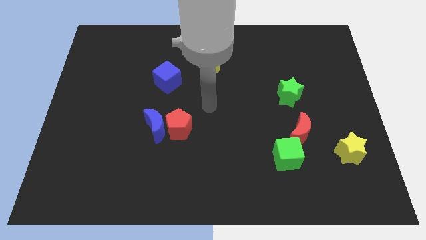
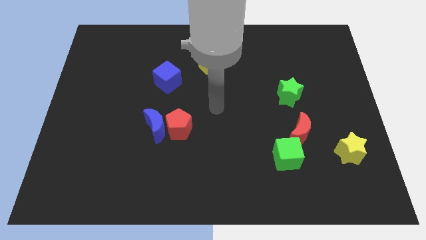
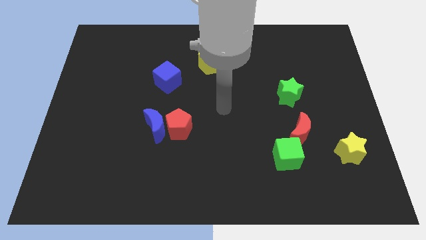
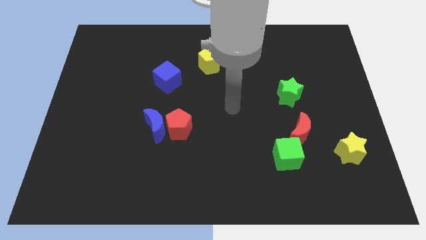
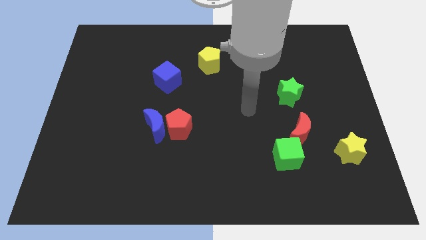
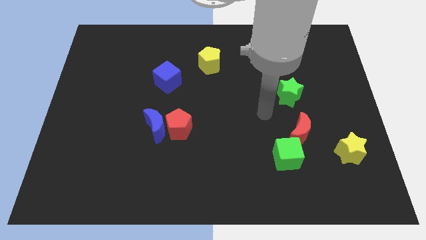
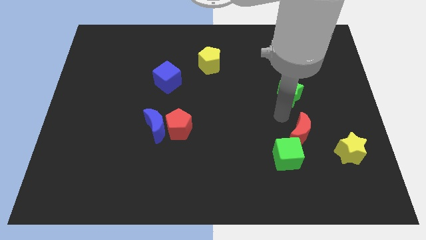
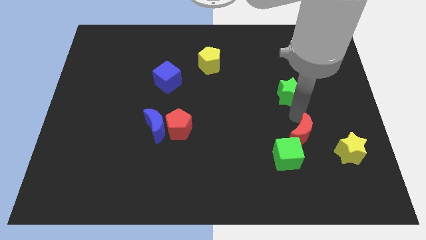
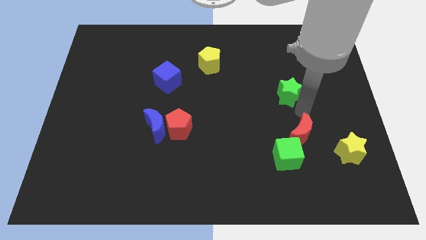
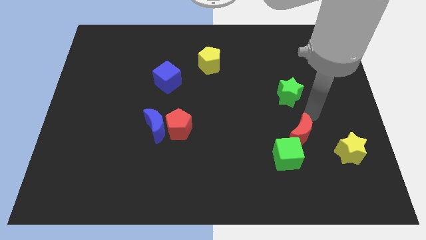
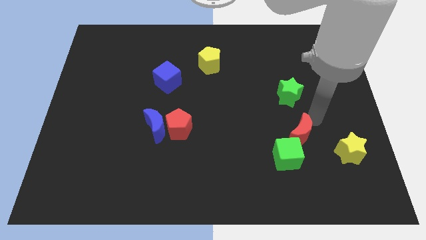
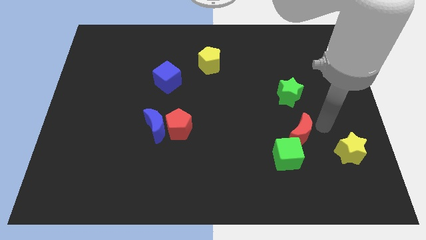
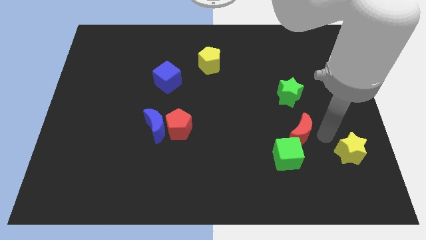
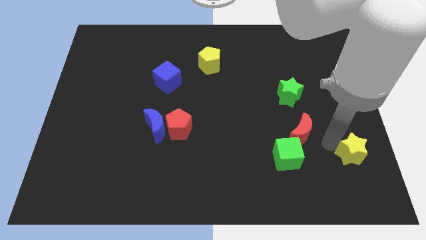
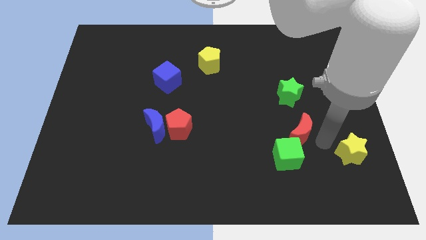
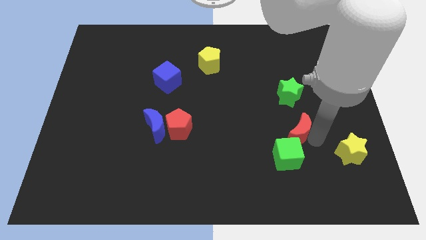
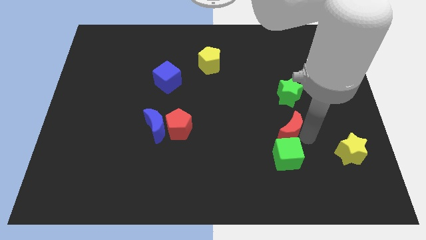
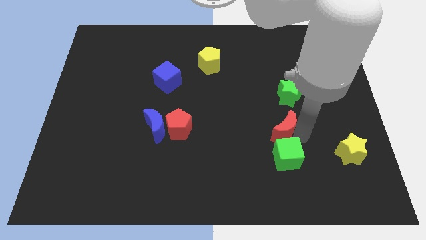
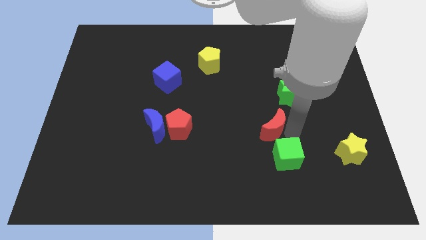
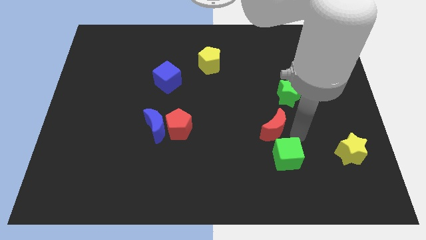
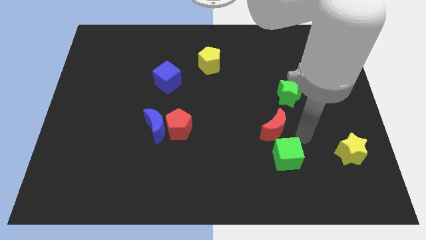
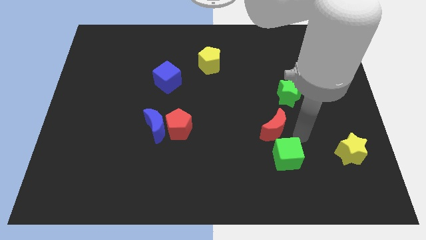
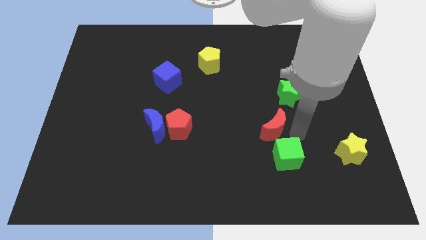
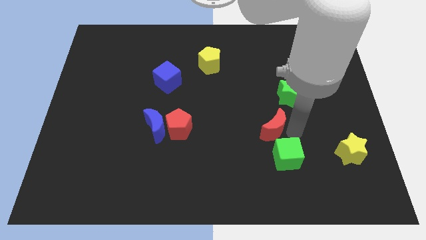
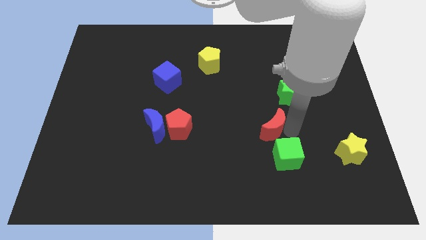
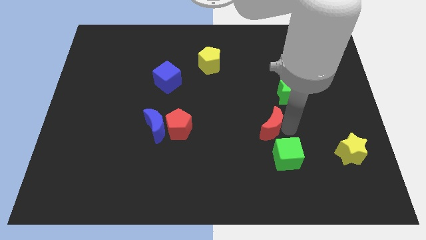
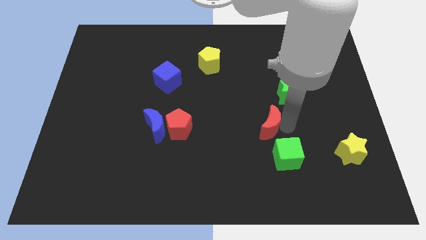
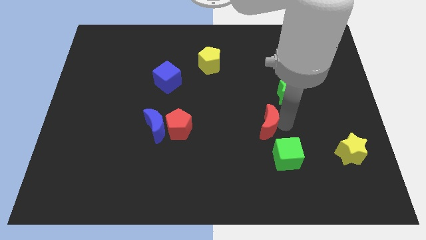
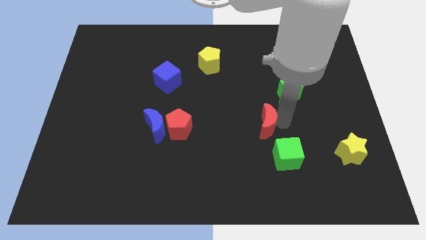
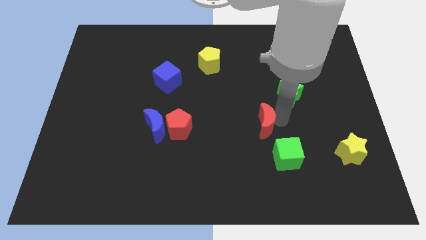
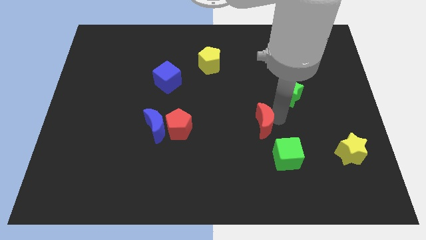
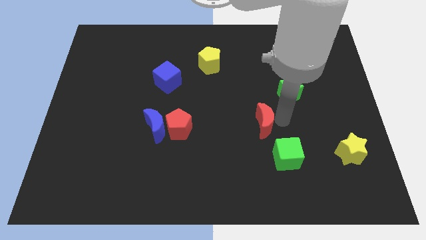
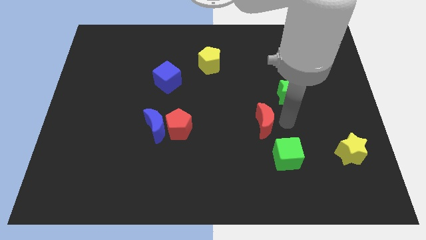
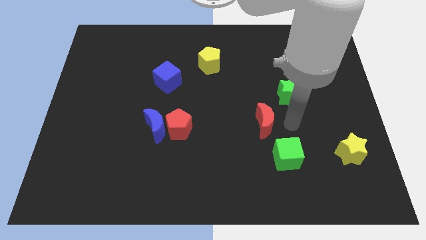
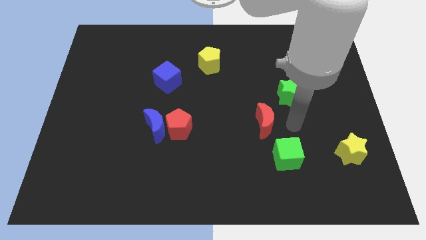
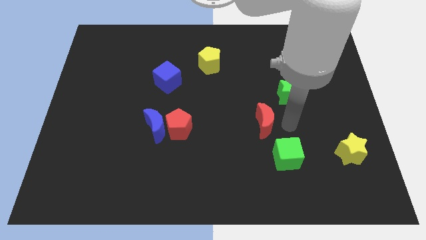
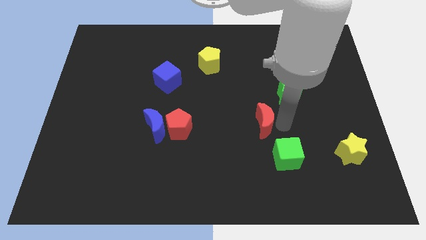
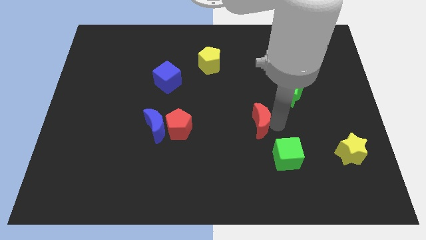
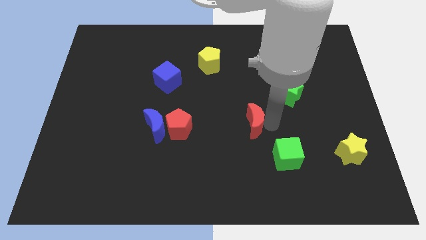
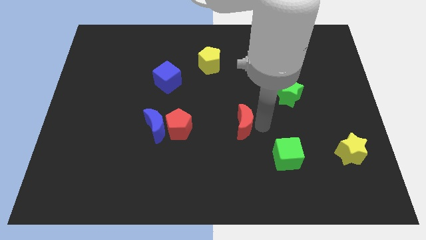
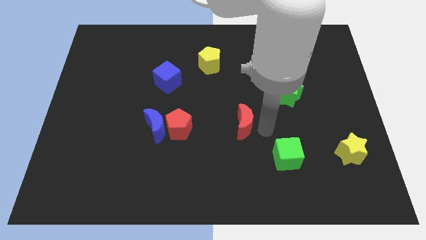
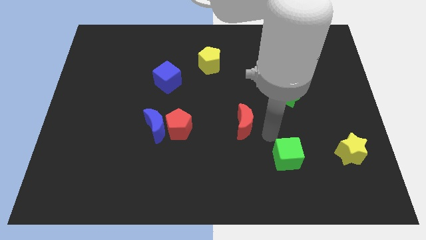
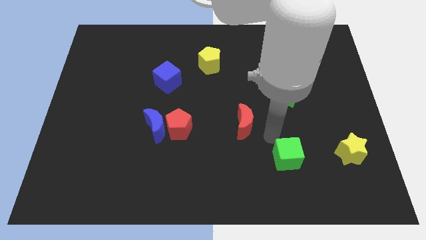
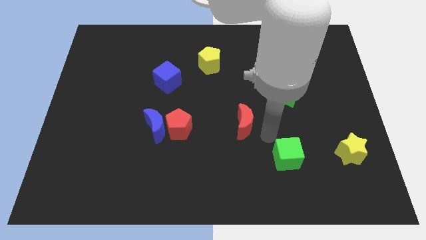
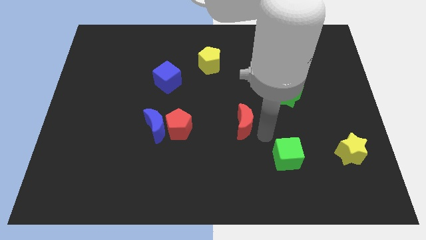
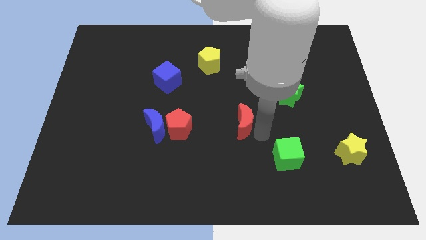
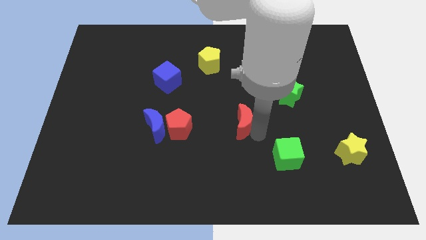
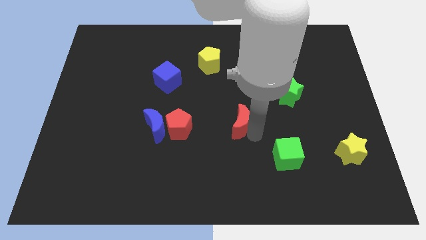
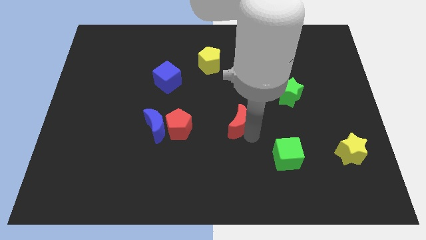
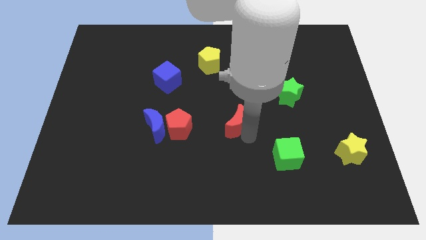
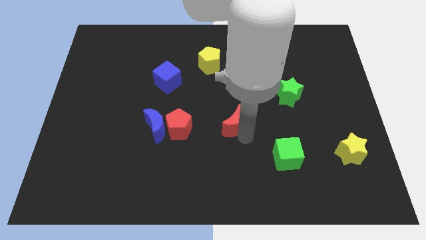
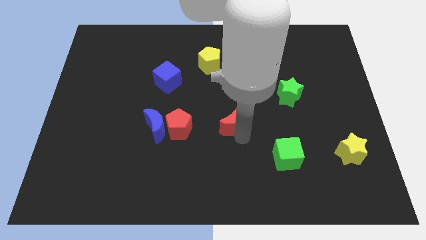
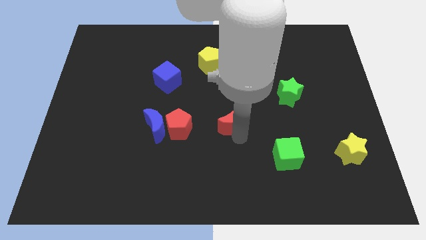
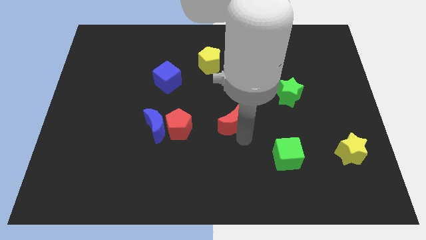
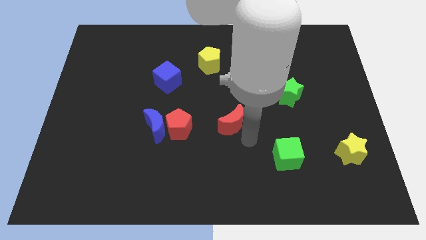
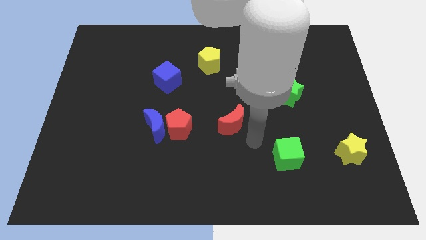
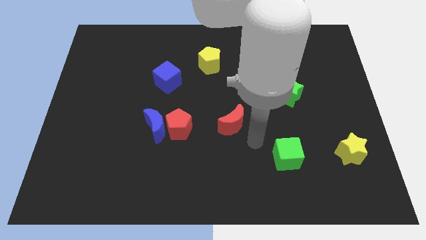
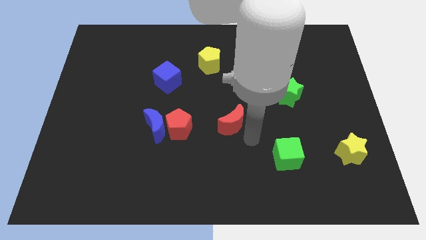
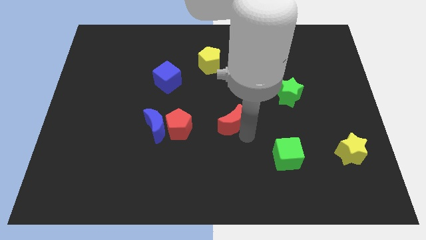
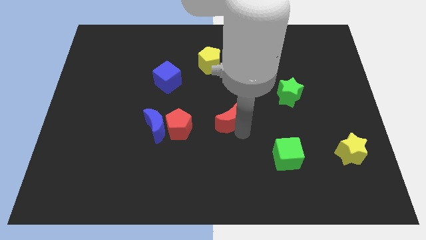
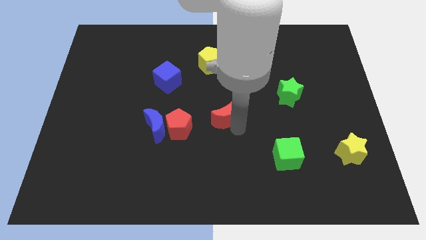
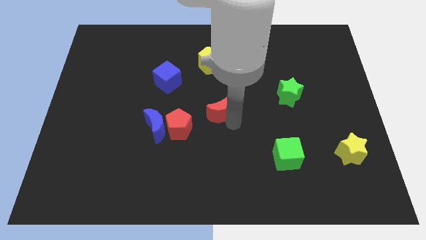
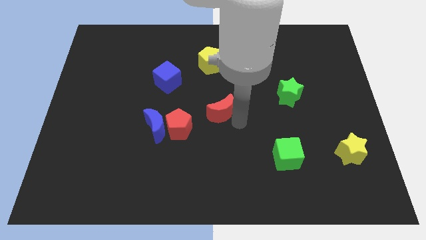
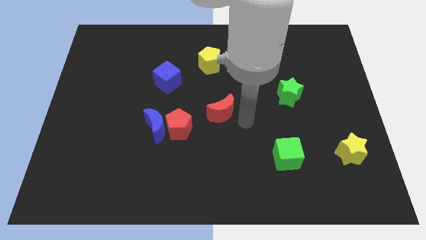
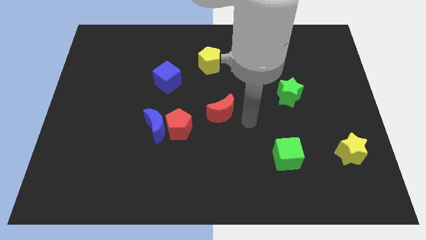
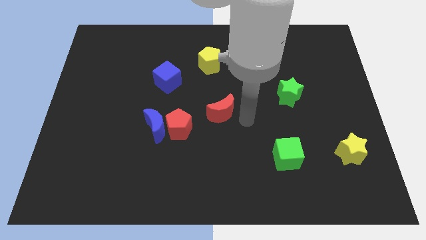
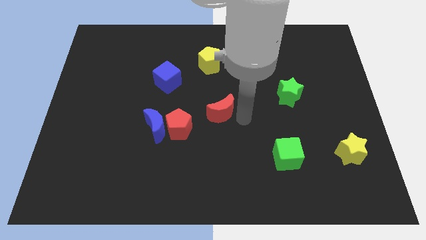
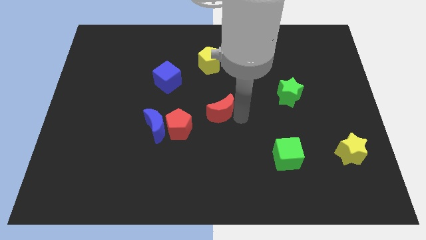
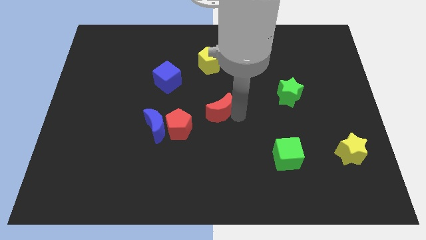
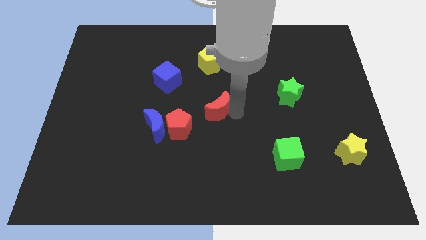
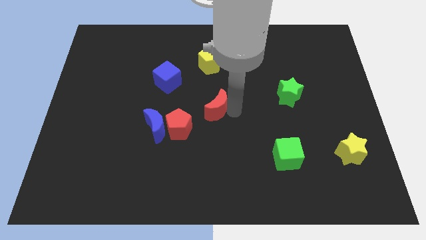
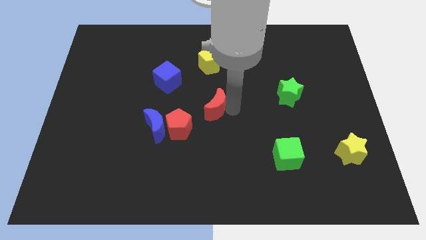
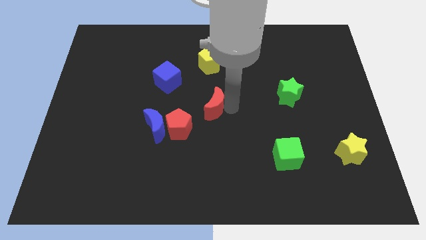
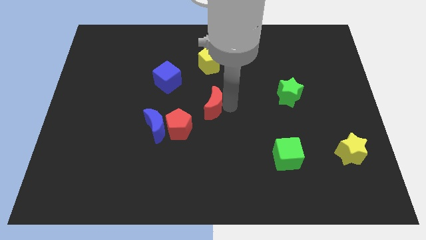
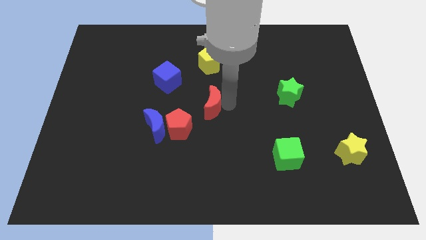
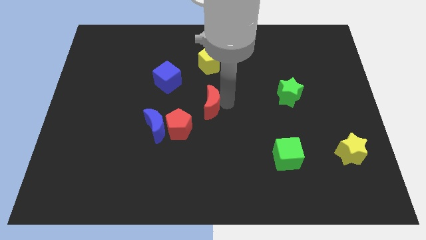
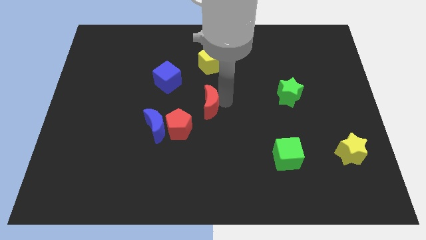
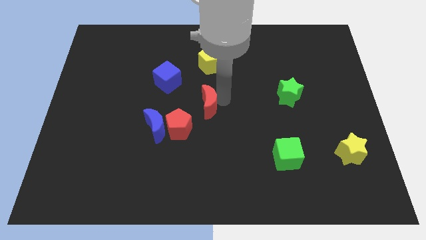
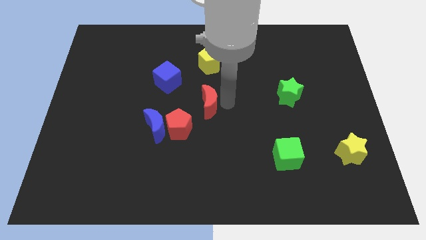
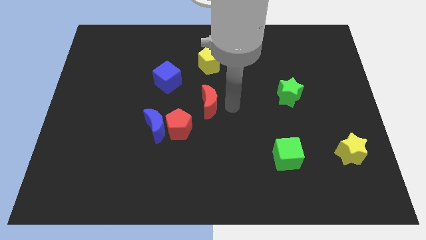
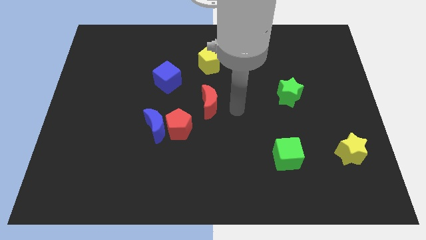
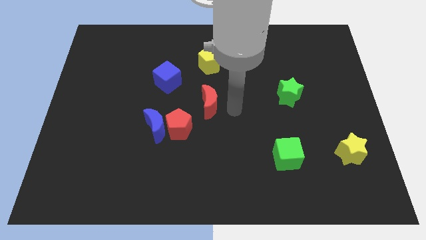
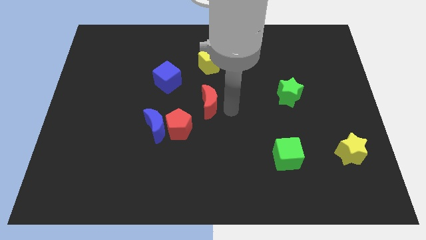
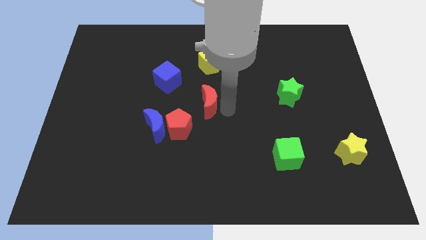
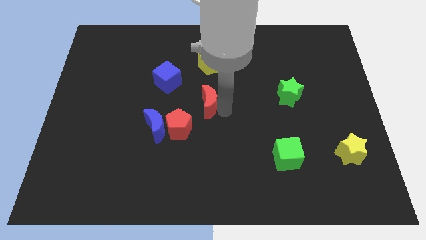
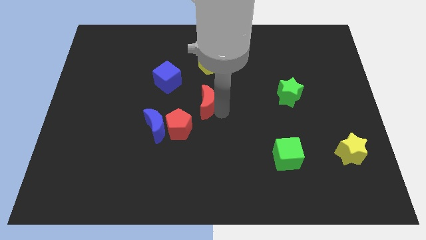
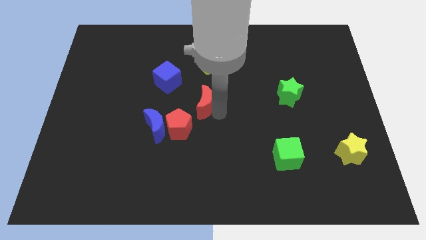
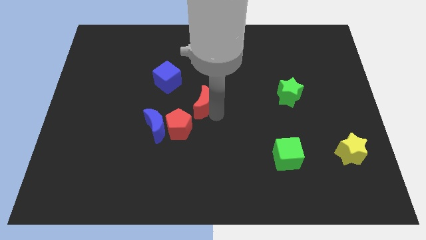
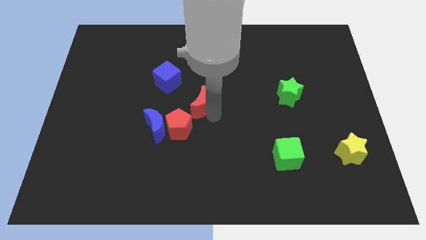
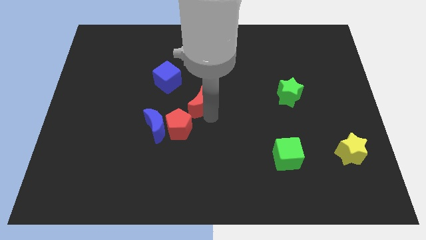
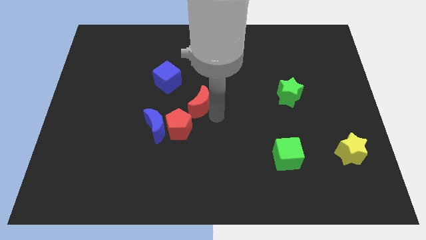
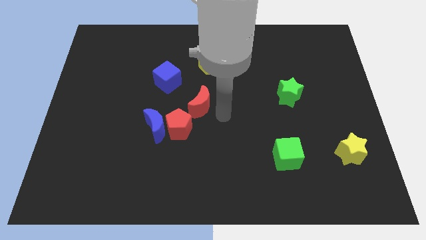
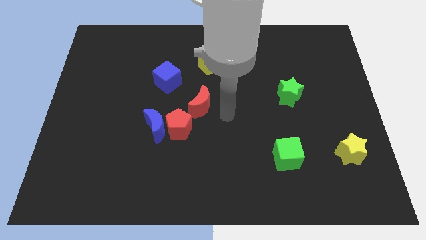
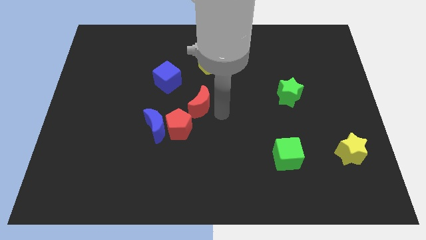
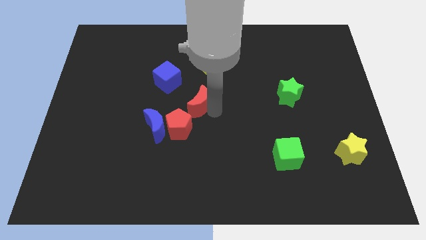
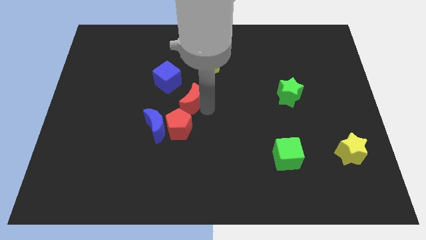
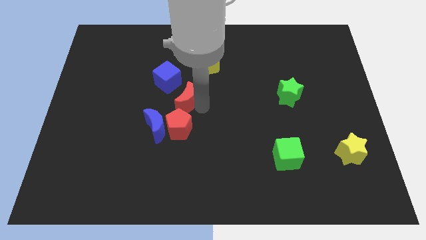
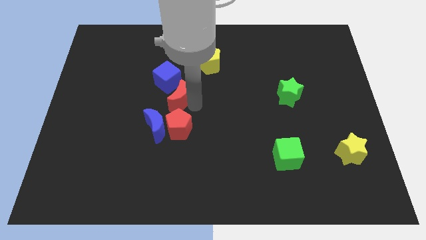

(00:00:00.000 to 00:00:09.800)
slide the red moon to the top side of the blue moon
